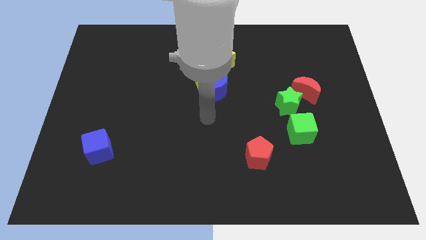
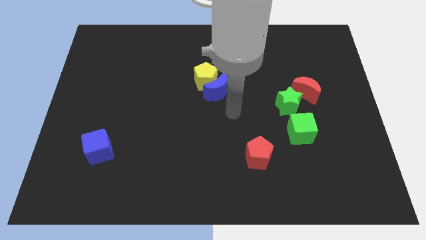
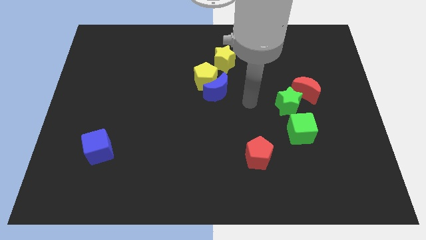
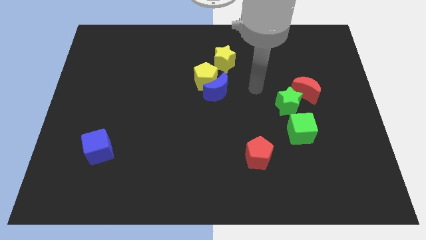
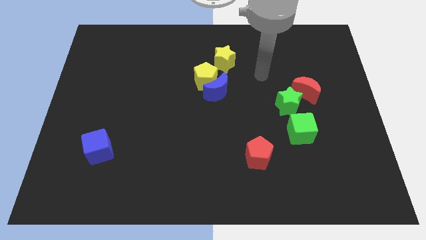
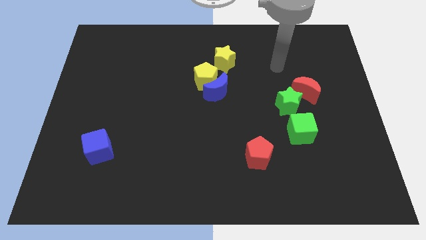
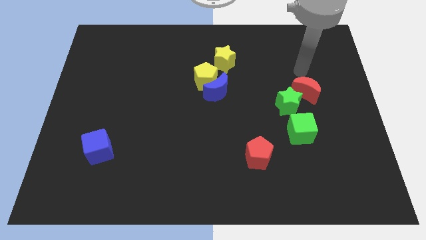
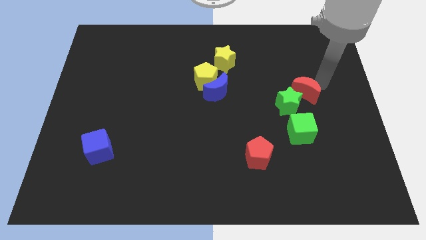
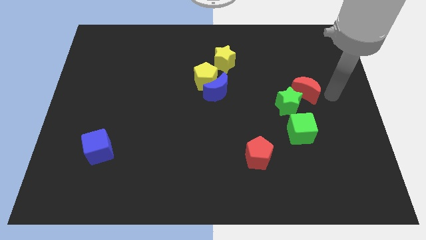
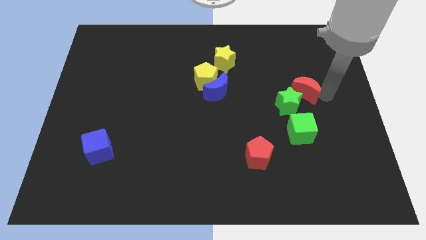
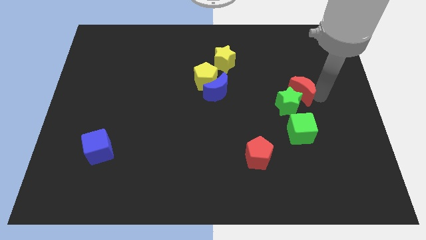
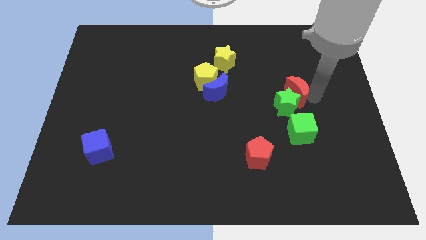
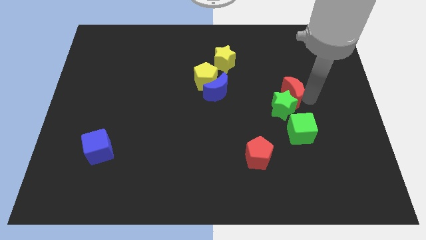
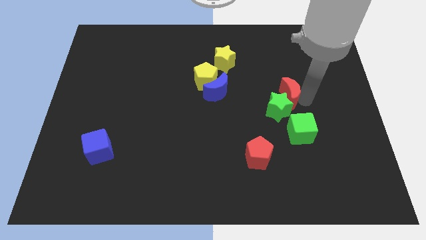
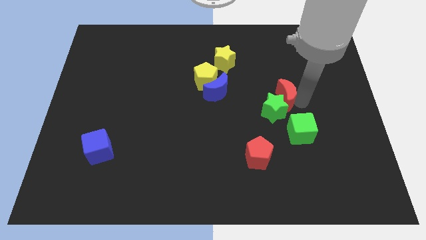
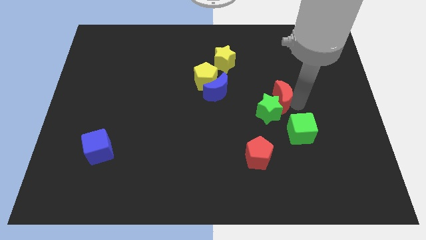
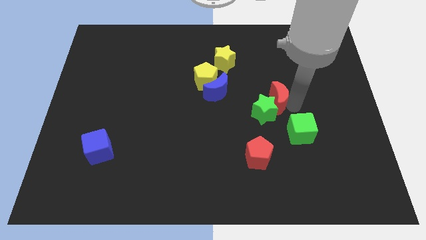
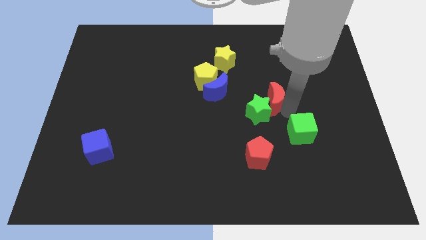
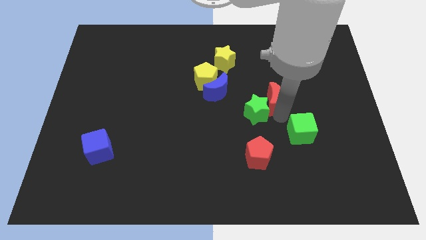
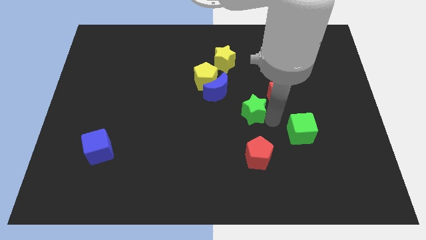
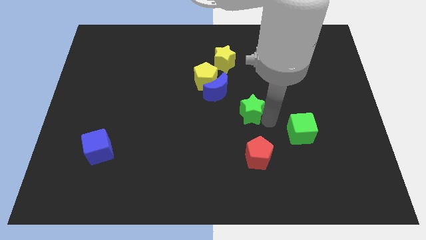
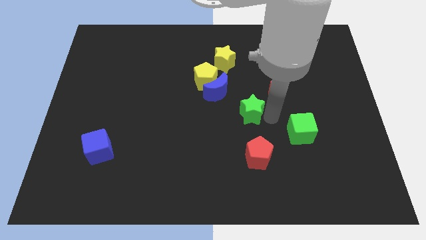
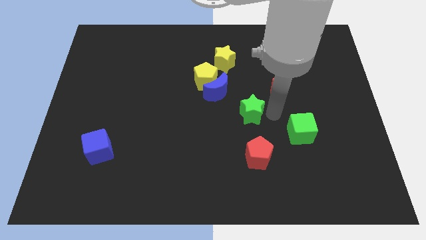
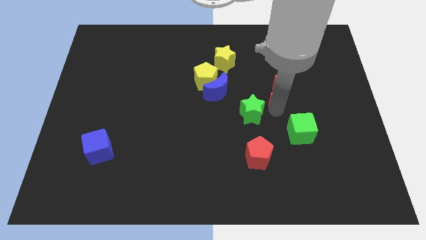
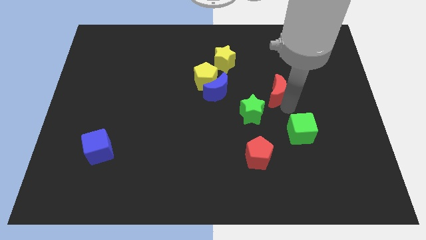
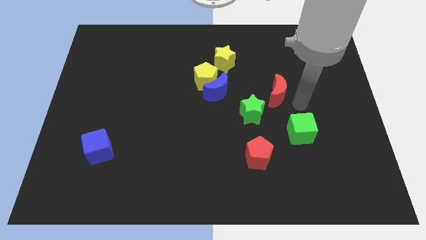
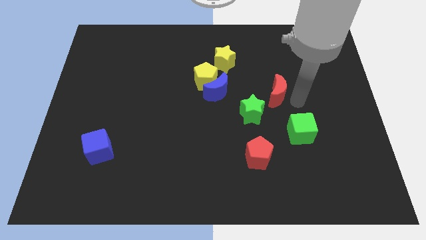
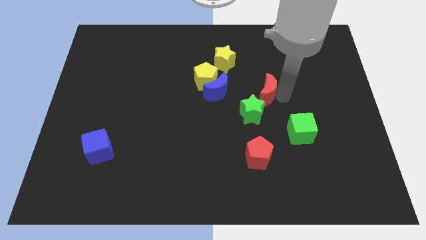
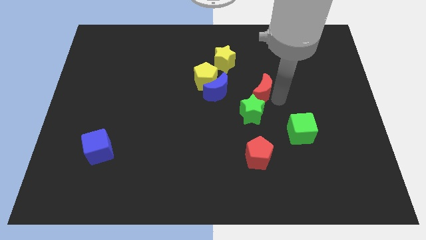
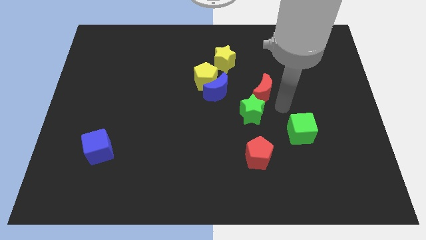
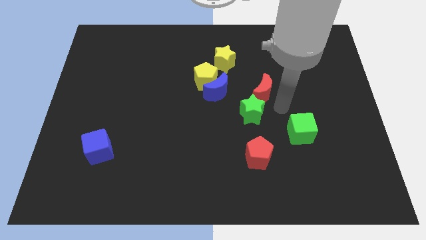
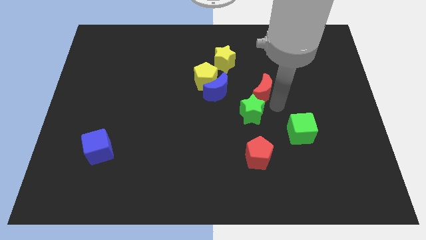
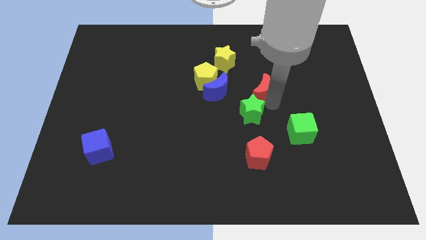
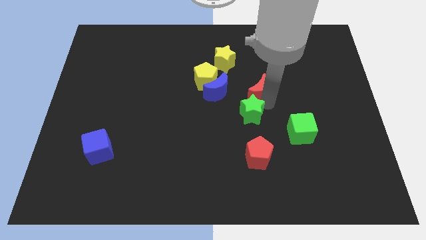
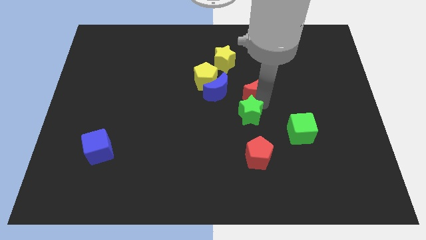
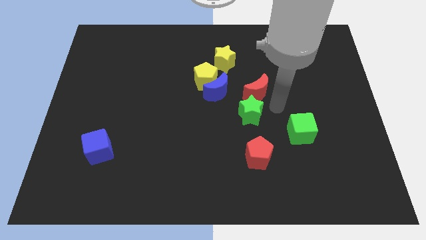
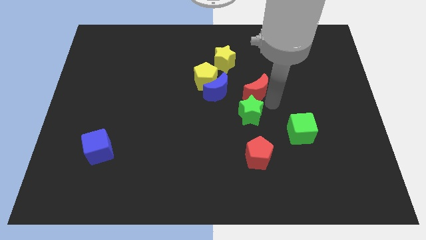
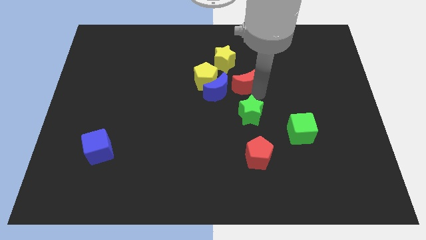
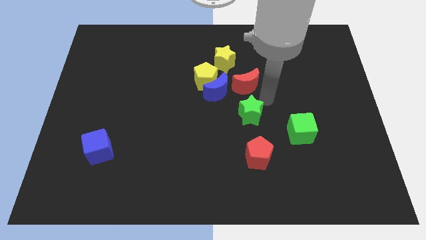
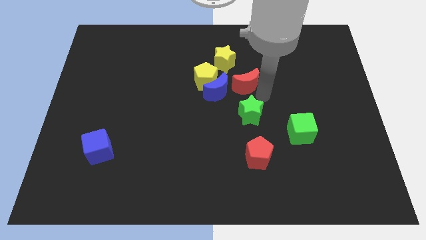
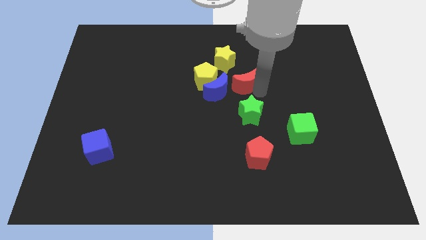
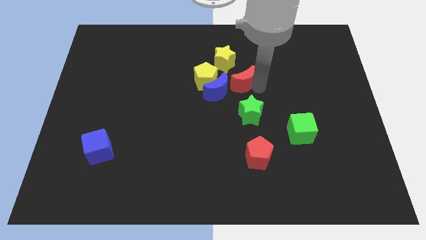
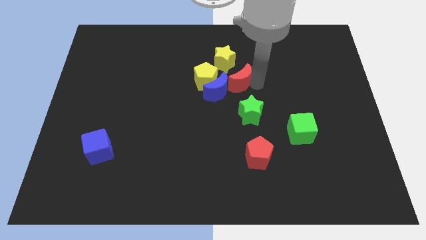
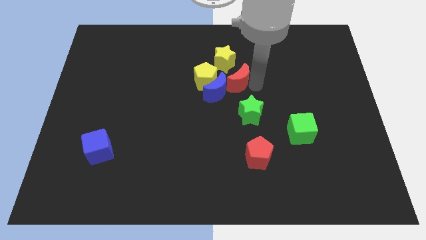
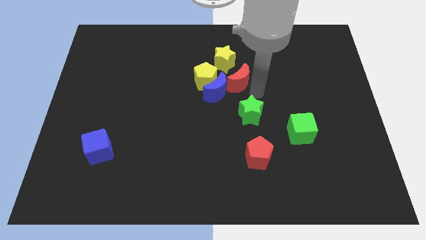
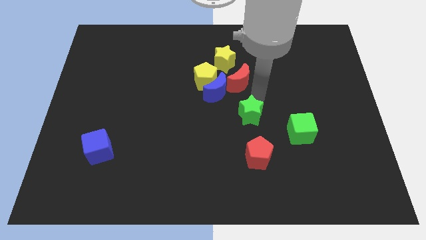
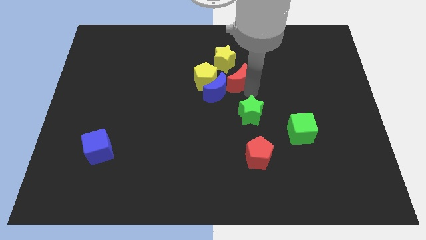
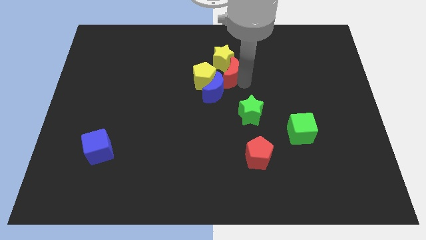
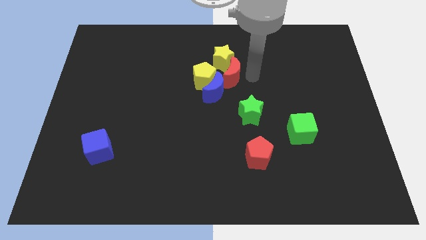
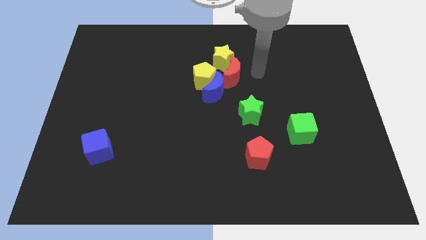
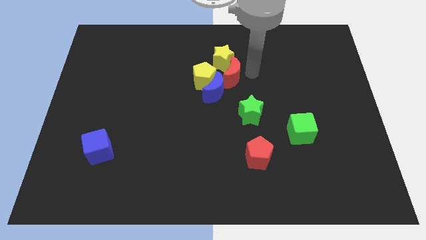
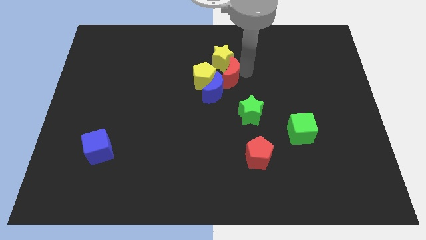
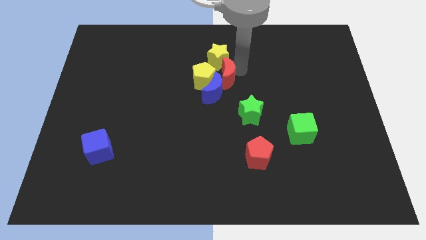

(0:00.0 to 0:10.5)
push the red moon next to the yellow pentagon

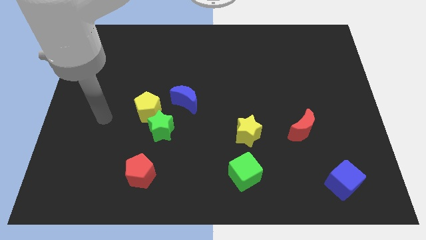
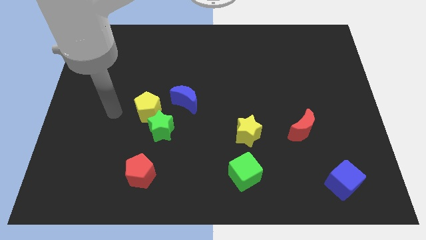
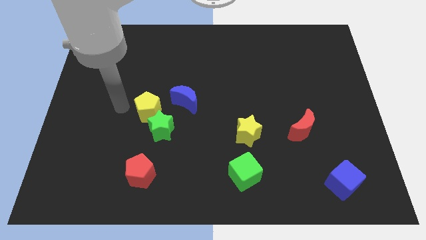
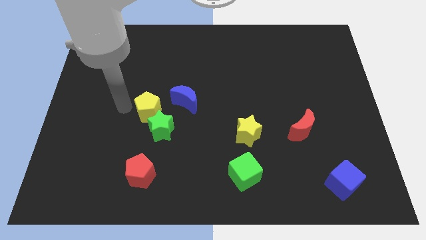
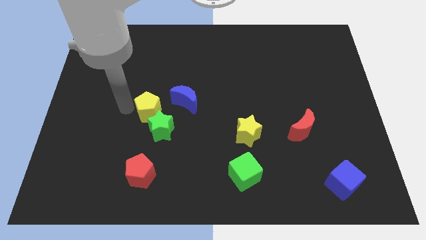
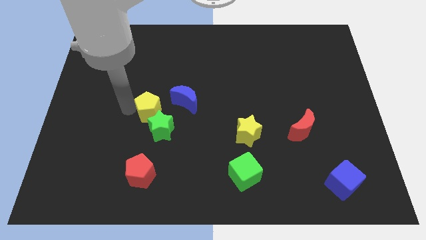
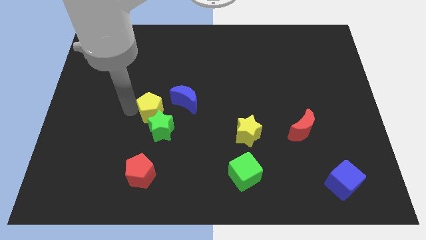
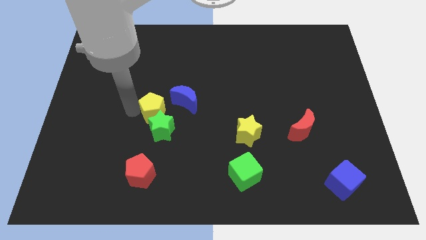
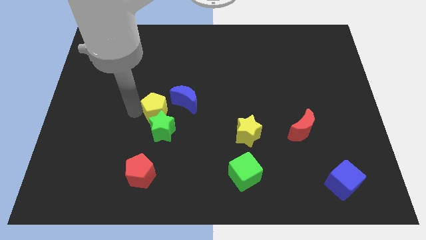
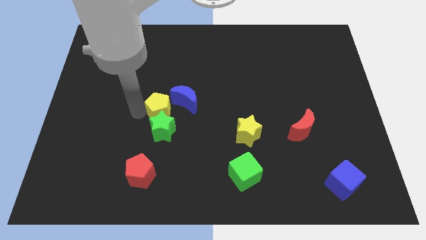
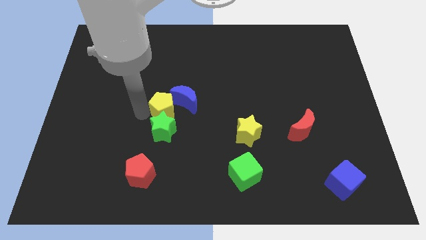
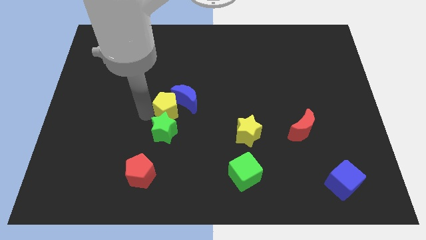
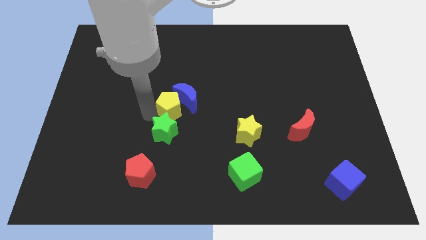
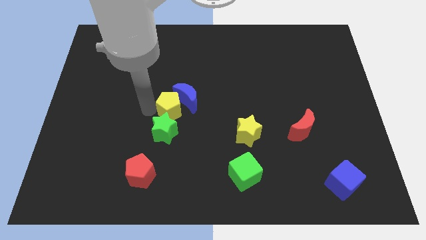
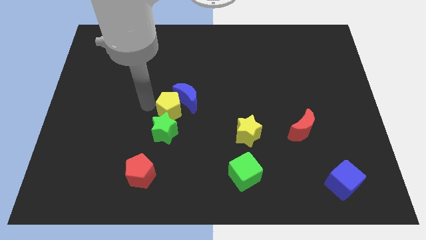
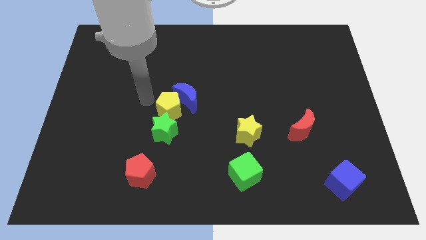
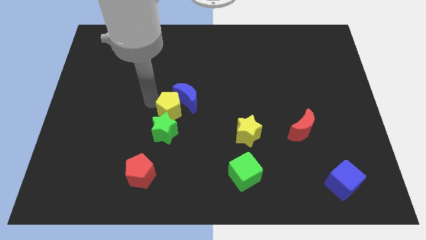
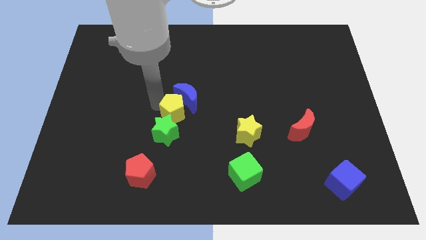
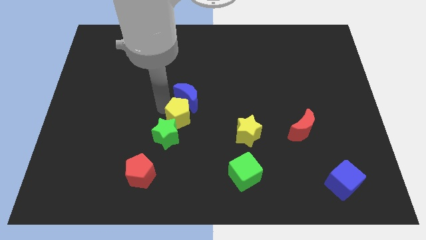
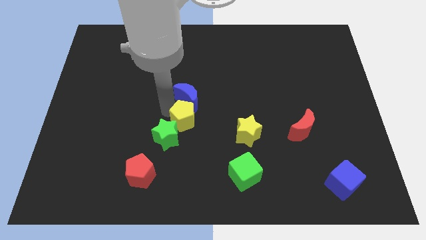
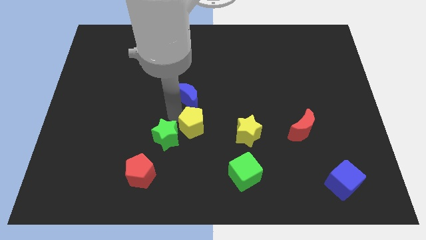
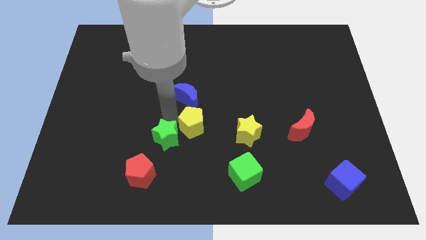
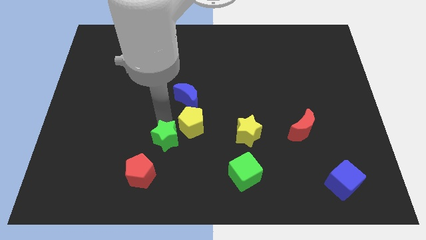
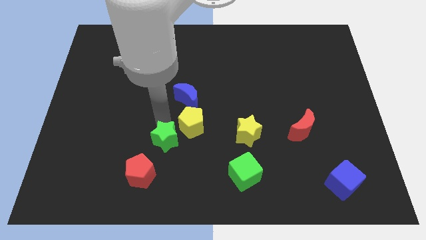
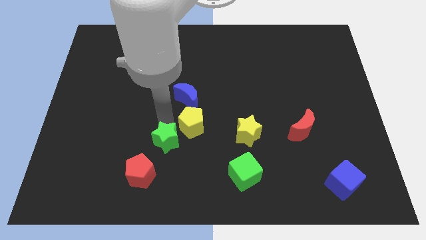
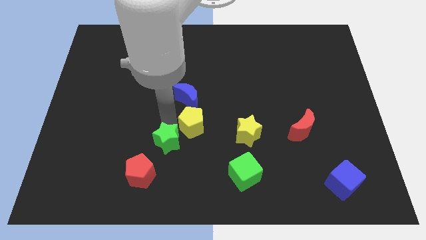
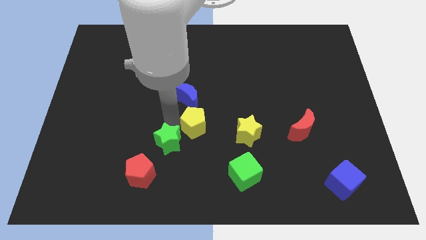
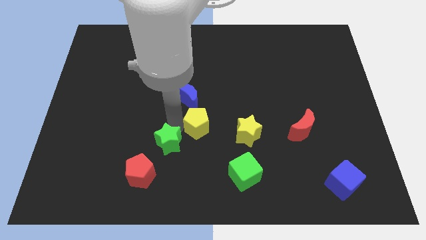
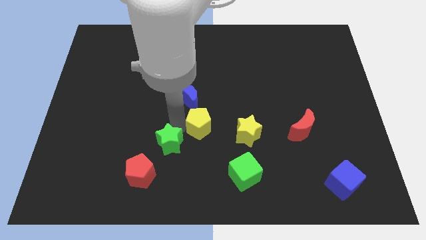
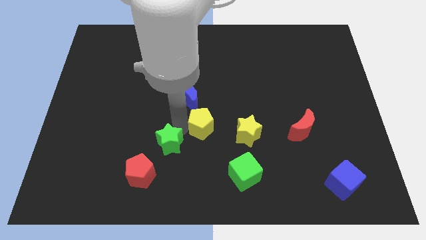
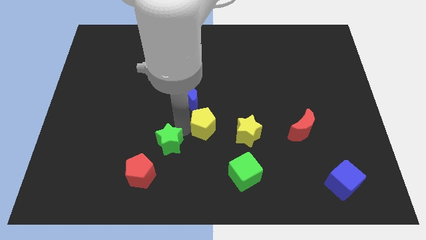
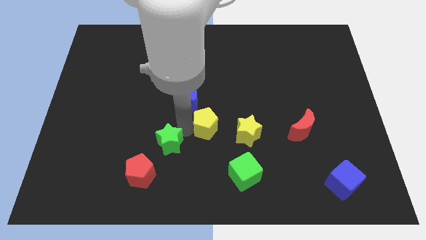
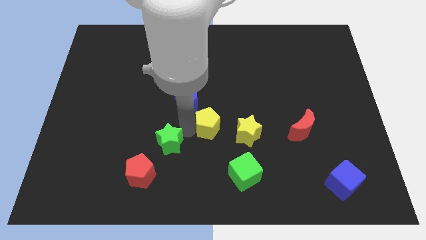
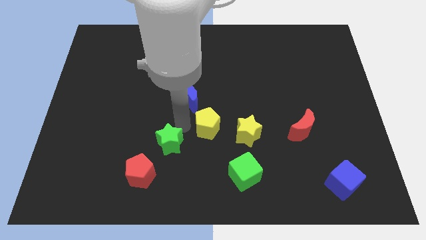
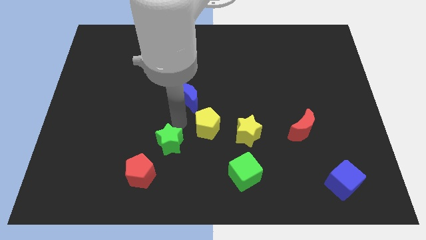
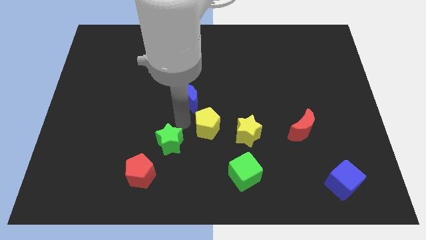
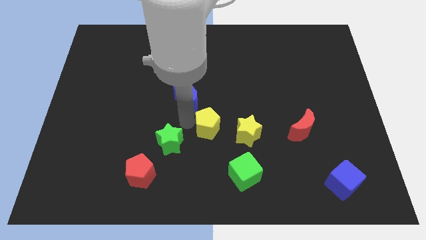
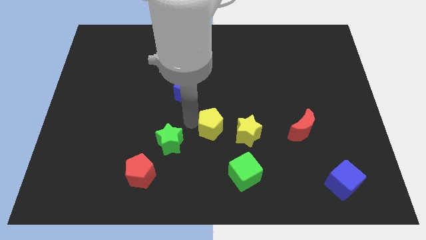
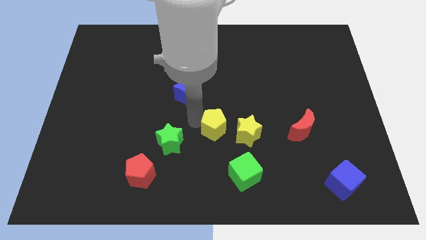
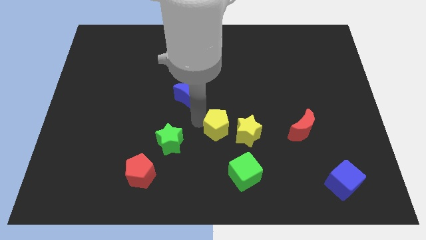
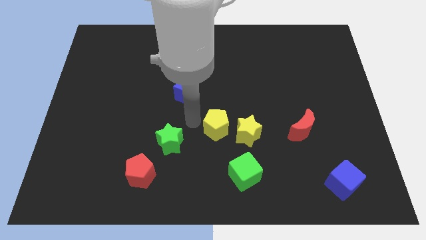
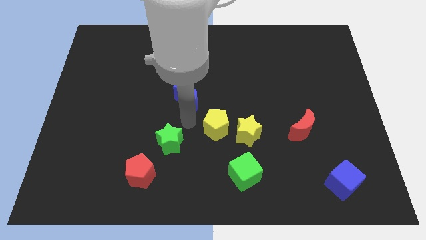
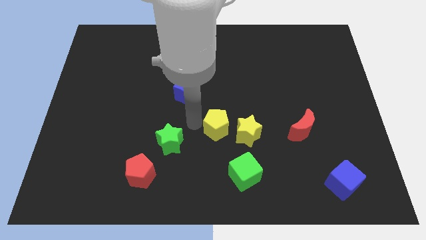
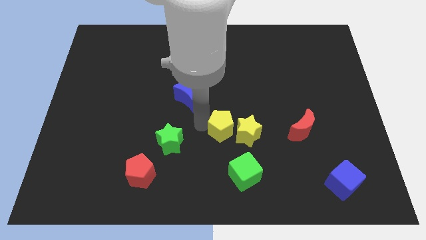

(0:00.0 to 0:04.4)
put the yellow pentagon close to the yellow star
